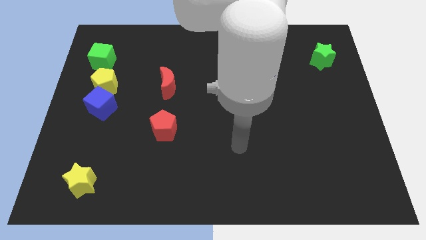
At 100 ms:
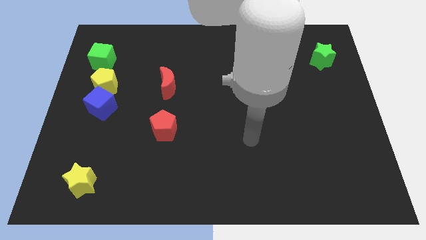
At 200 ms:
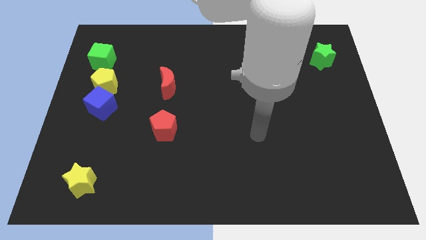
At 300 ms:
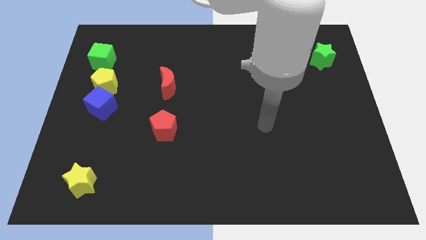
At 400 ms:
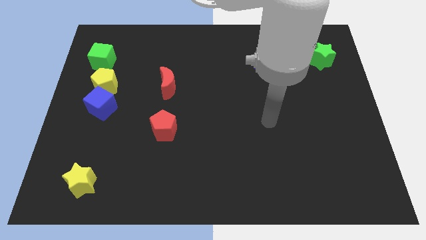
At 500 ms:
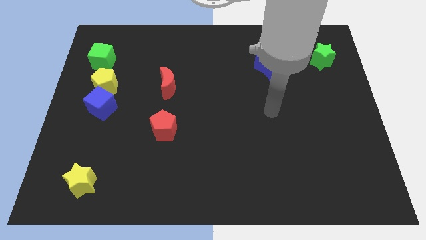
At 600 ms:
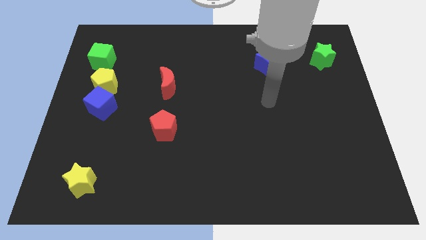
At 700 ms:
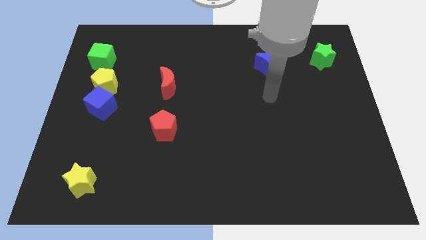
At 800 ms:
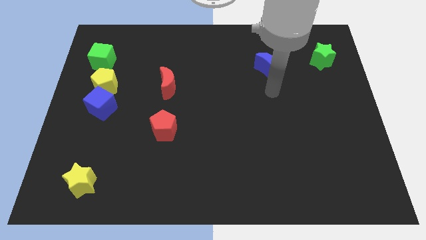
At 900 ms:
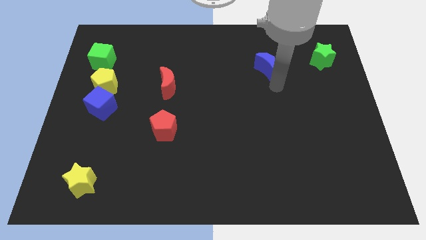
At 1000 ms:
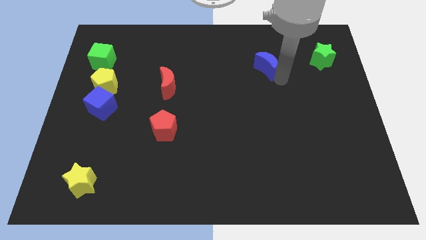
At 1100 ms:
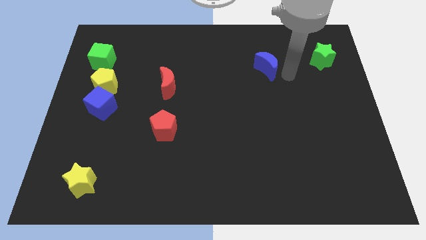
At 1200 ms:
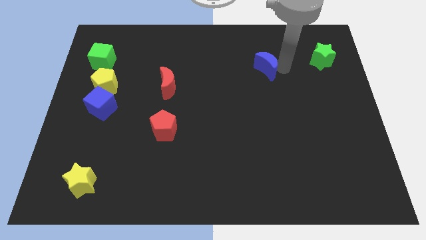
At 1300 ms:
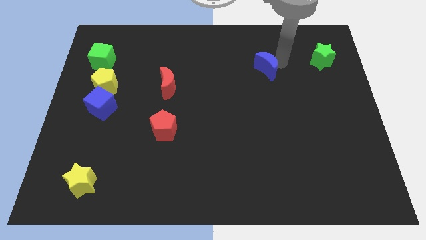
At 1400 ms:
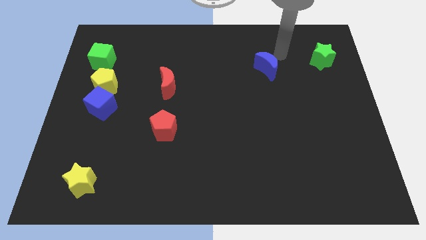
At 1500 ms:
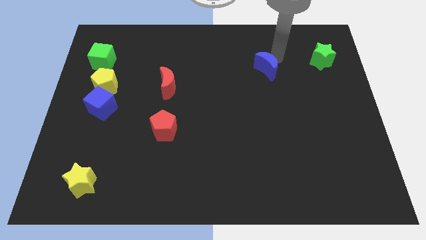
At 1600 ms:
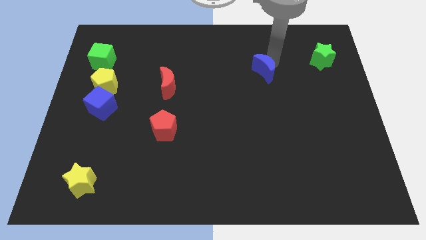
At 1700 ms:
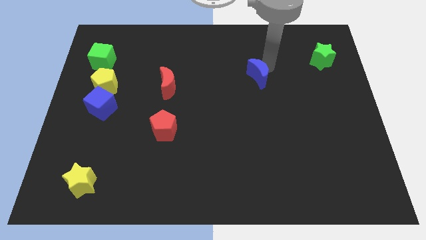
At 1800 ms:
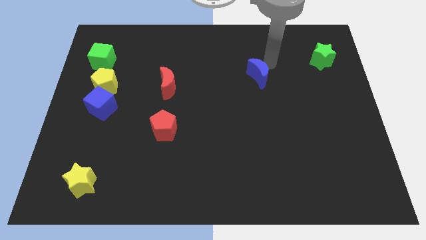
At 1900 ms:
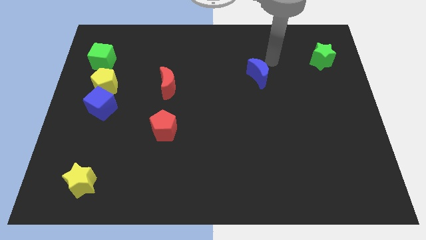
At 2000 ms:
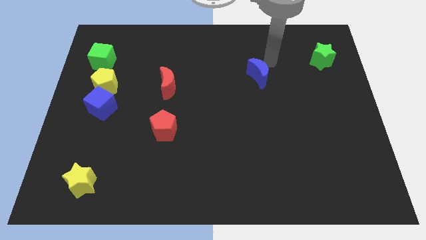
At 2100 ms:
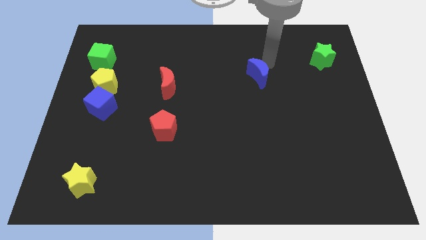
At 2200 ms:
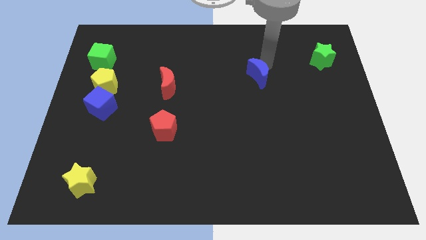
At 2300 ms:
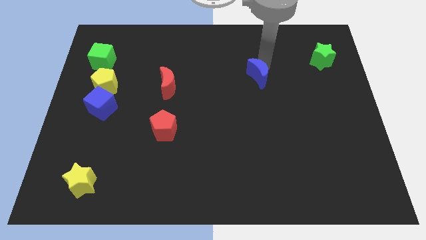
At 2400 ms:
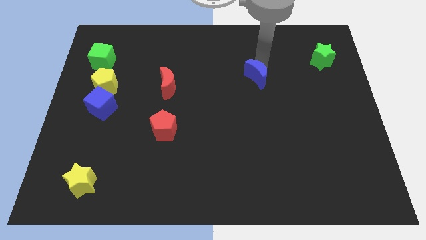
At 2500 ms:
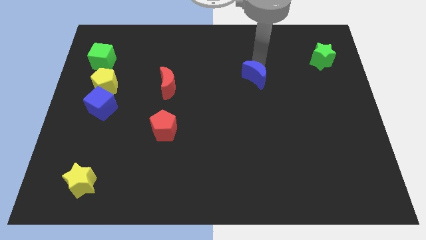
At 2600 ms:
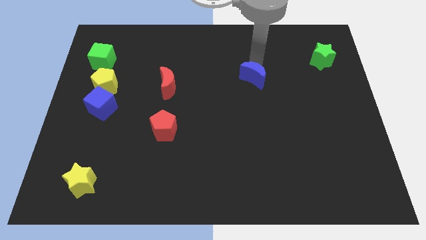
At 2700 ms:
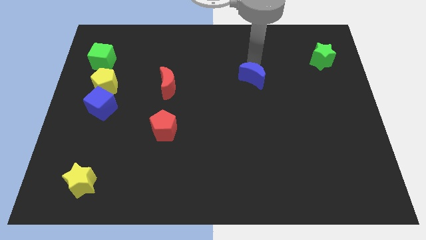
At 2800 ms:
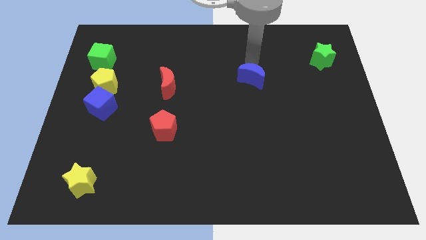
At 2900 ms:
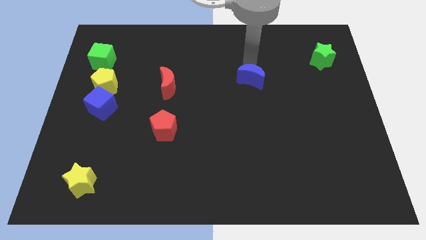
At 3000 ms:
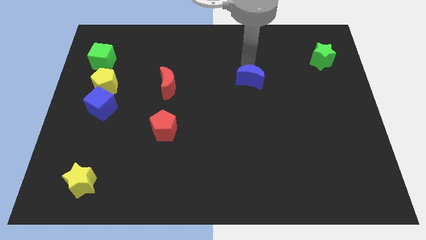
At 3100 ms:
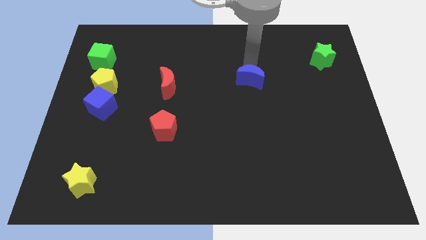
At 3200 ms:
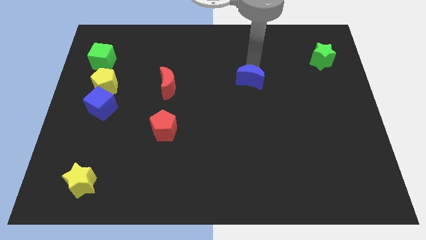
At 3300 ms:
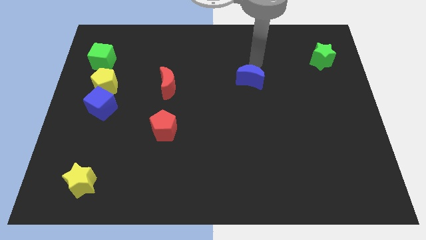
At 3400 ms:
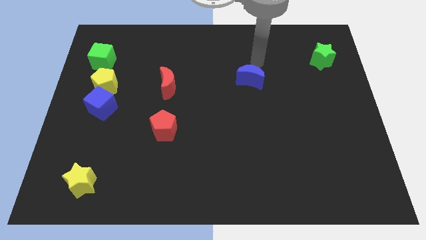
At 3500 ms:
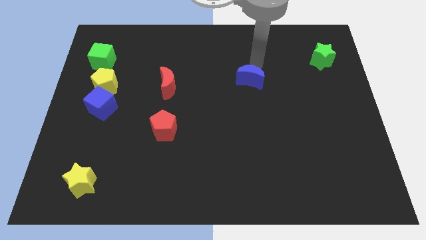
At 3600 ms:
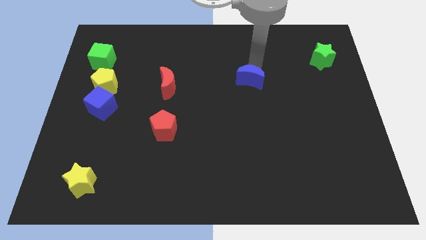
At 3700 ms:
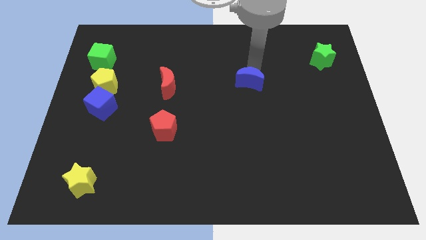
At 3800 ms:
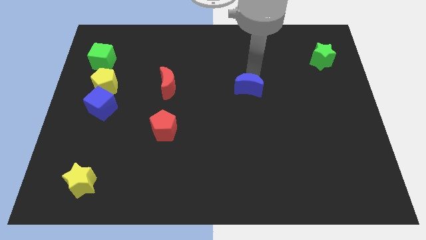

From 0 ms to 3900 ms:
slide the blue moon a little downwards and then to the left

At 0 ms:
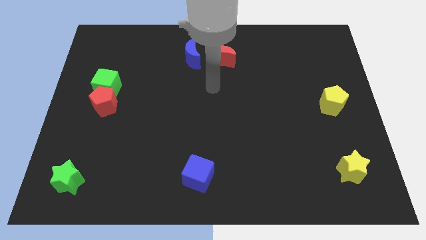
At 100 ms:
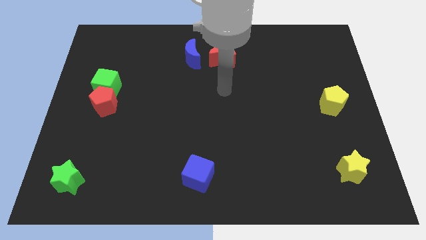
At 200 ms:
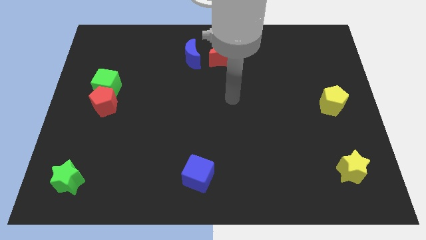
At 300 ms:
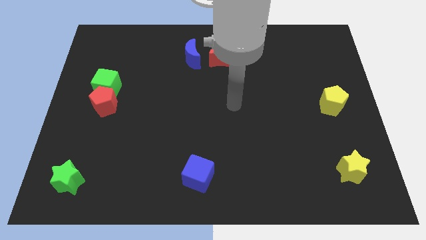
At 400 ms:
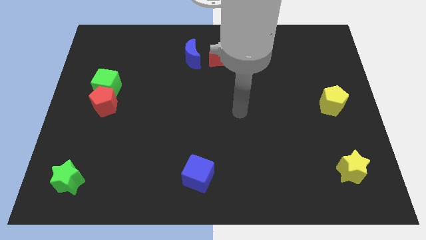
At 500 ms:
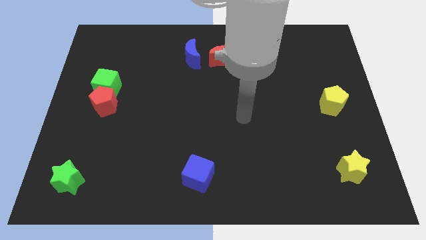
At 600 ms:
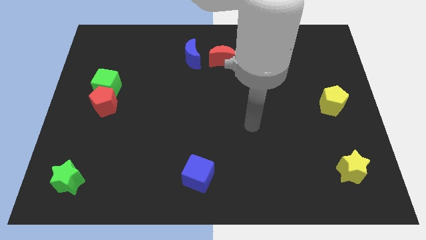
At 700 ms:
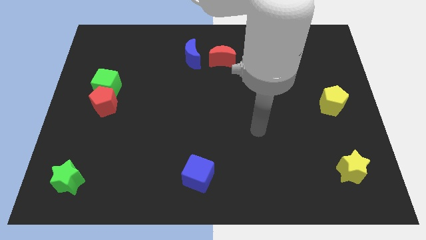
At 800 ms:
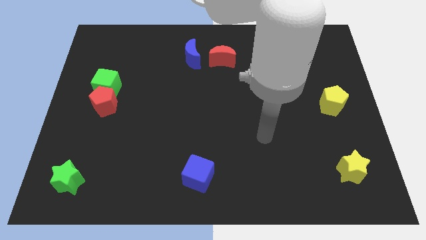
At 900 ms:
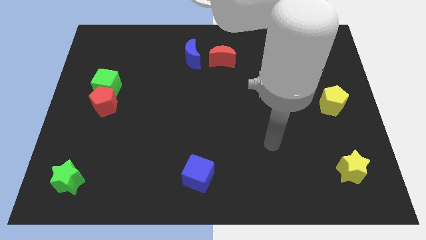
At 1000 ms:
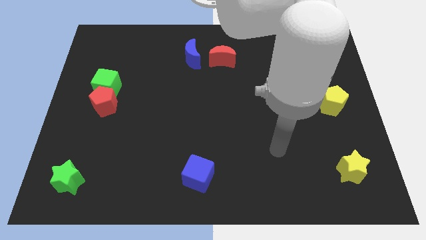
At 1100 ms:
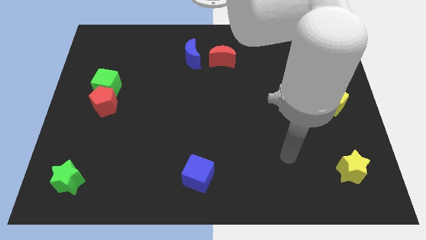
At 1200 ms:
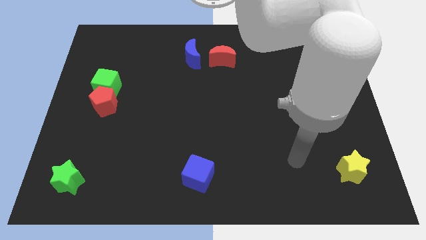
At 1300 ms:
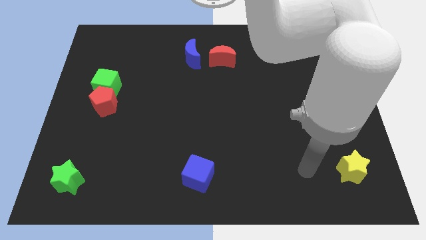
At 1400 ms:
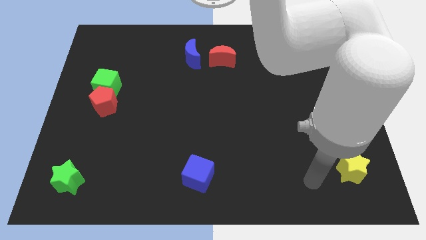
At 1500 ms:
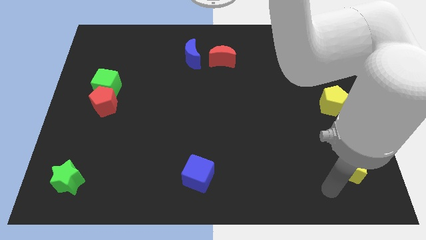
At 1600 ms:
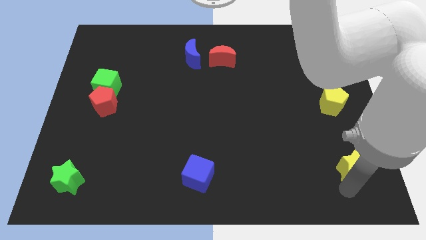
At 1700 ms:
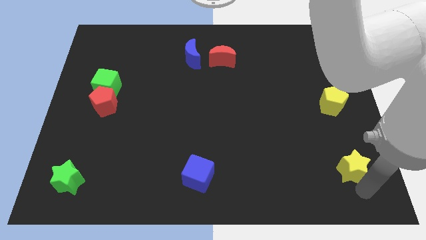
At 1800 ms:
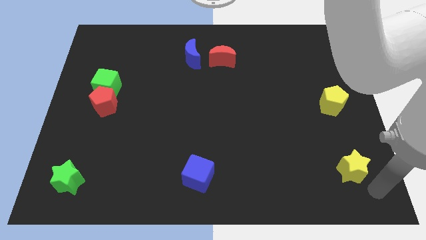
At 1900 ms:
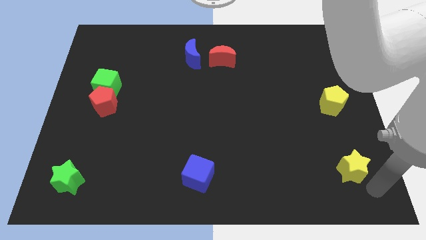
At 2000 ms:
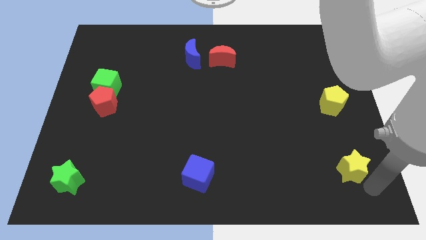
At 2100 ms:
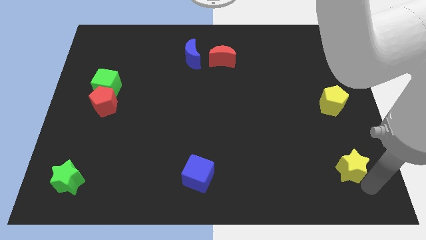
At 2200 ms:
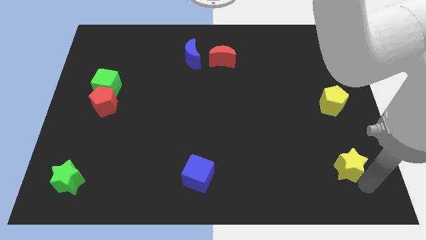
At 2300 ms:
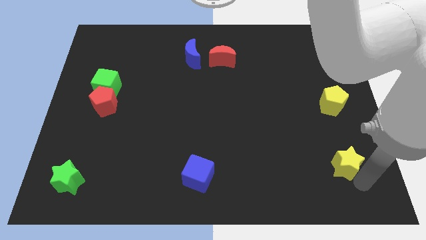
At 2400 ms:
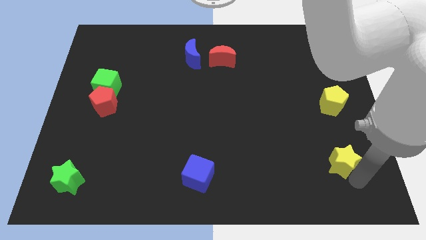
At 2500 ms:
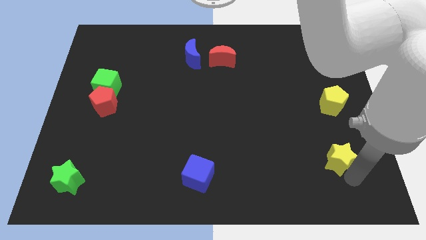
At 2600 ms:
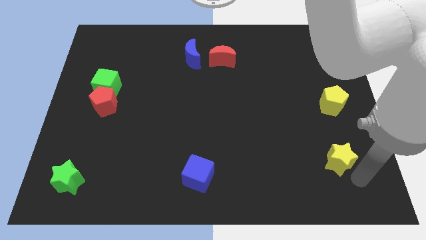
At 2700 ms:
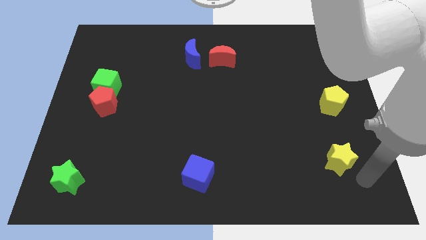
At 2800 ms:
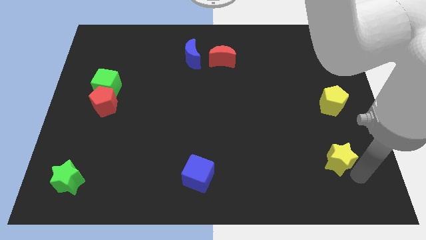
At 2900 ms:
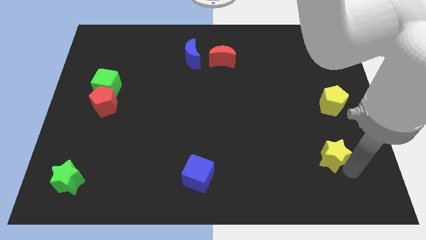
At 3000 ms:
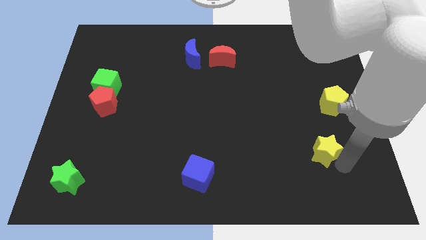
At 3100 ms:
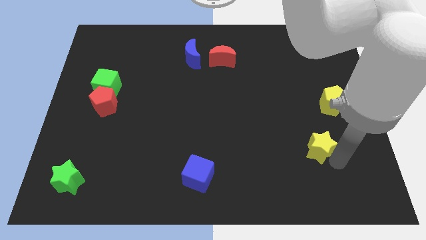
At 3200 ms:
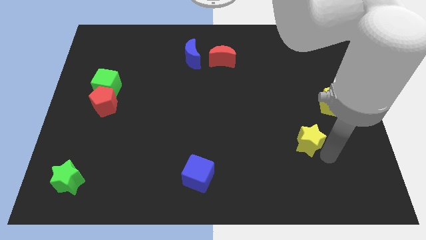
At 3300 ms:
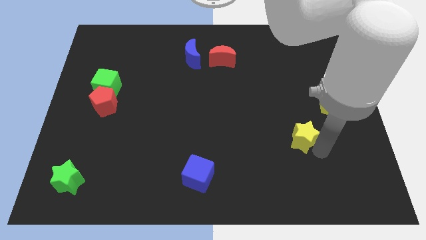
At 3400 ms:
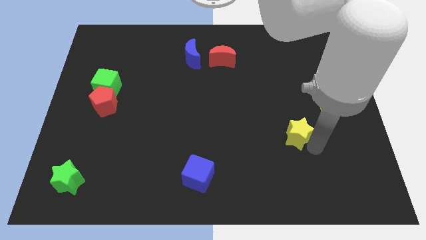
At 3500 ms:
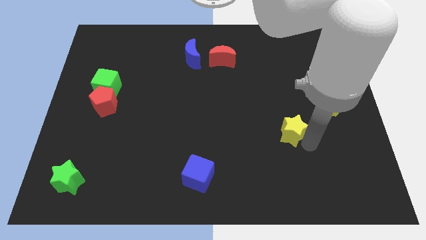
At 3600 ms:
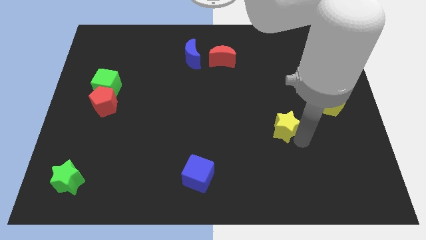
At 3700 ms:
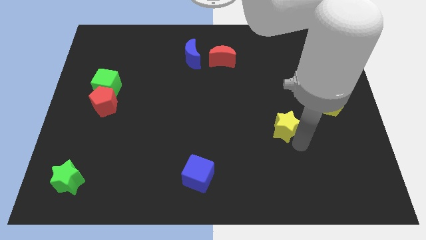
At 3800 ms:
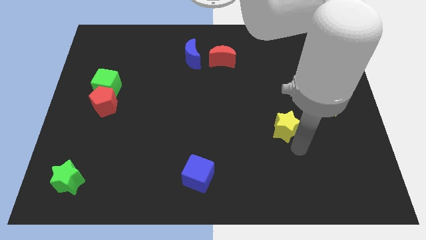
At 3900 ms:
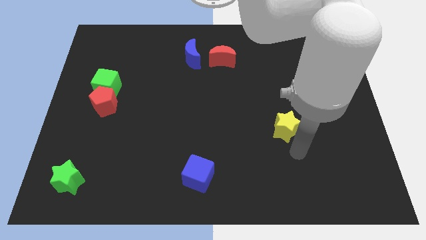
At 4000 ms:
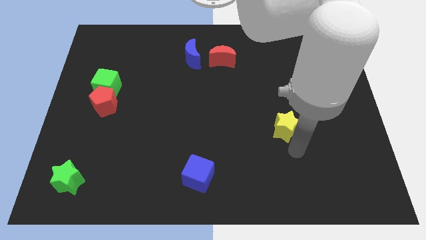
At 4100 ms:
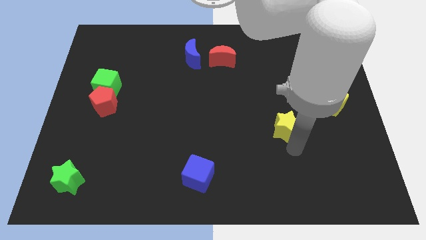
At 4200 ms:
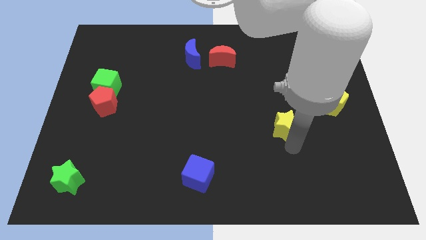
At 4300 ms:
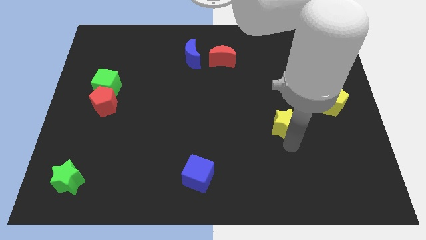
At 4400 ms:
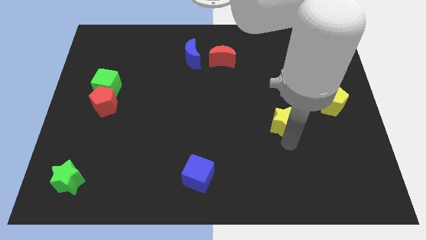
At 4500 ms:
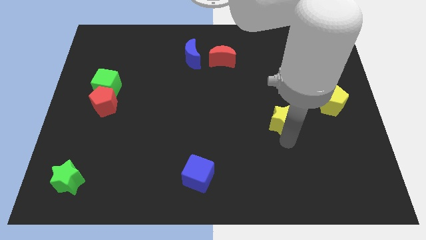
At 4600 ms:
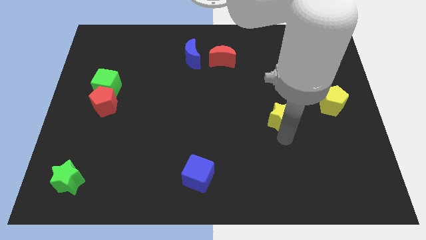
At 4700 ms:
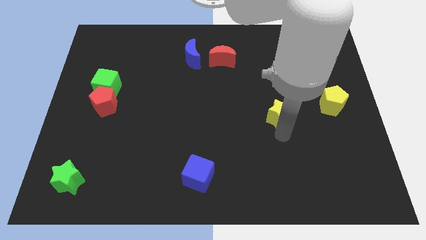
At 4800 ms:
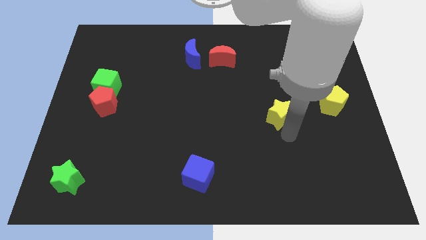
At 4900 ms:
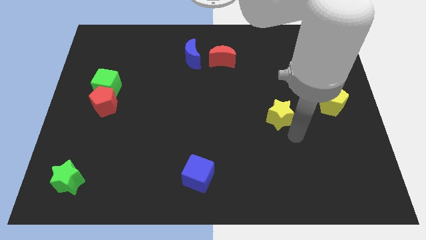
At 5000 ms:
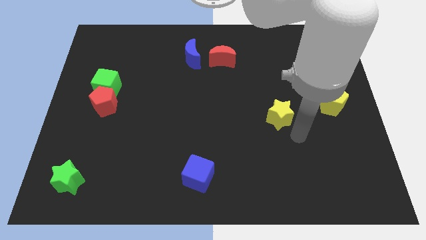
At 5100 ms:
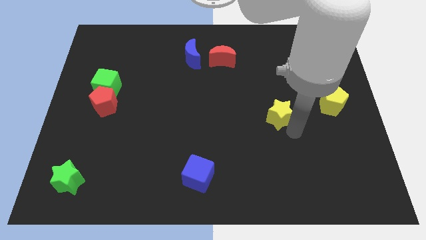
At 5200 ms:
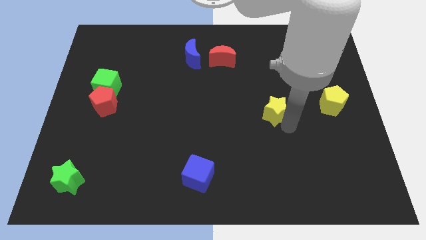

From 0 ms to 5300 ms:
slide the yellow star upwards and left
